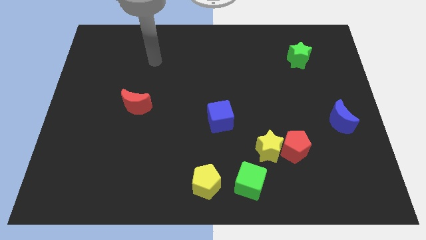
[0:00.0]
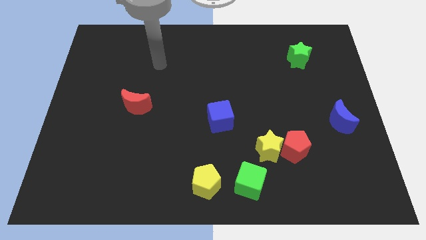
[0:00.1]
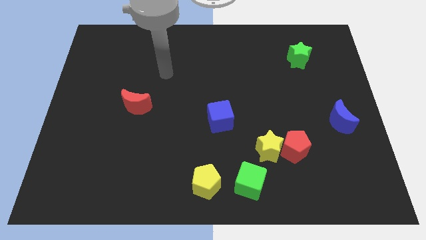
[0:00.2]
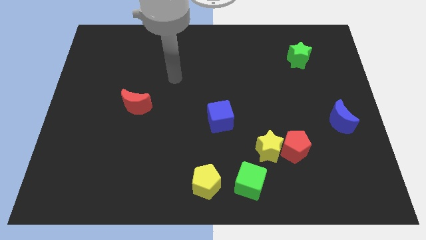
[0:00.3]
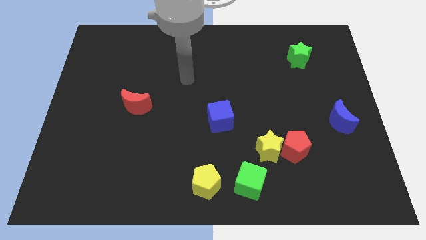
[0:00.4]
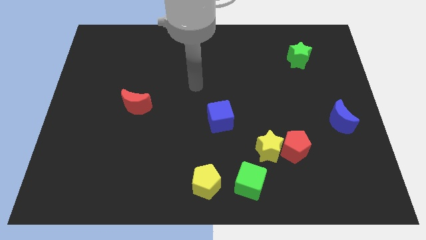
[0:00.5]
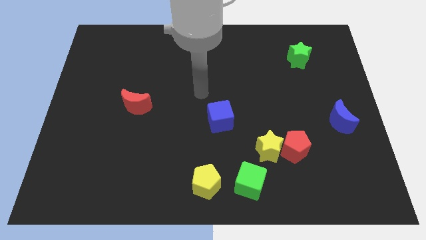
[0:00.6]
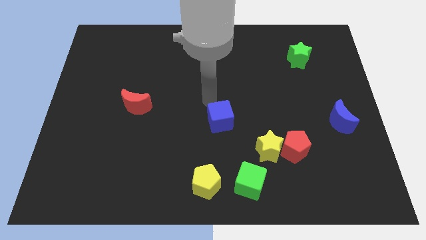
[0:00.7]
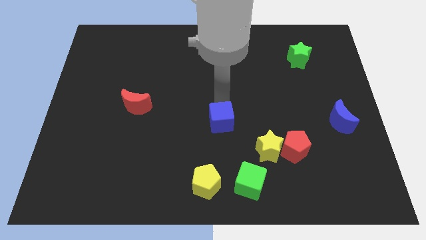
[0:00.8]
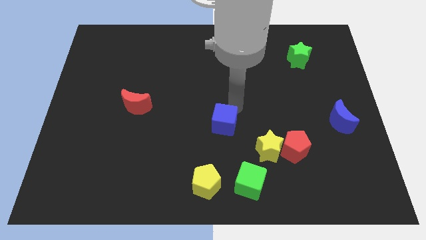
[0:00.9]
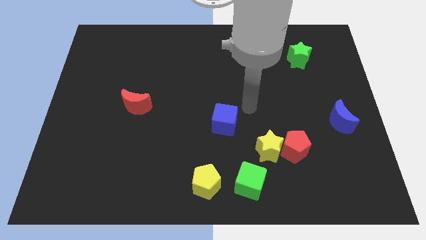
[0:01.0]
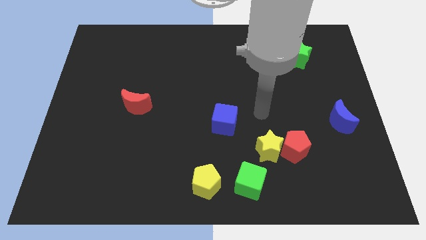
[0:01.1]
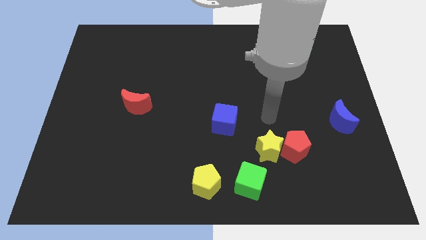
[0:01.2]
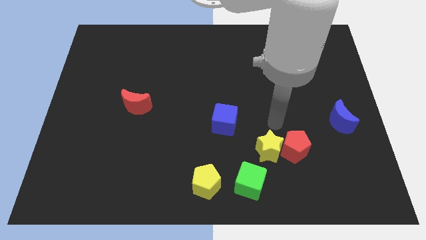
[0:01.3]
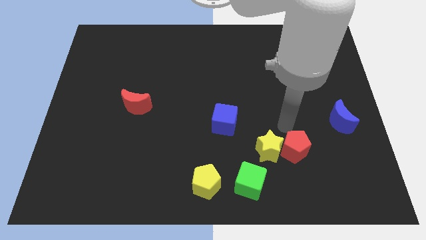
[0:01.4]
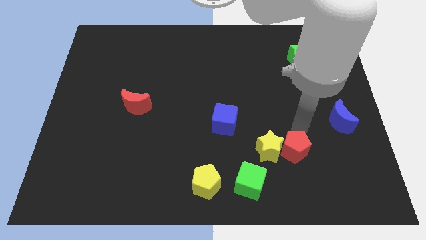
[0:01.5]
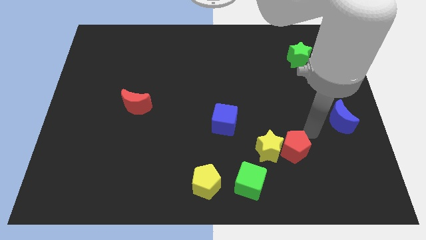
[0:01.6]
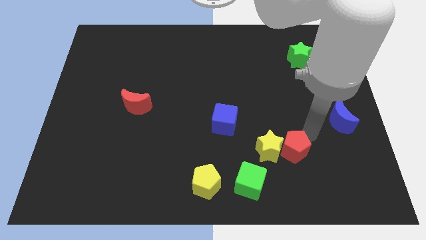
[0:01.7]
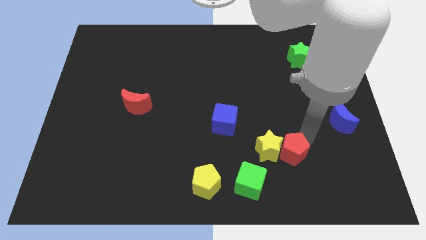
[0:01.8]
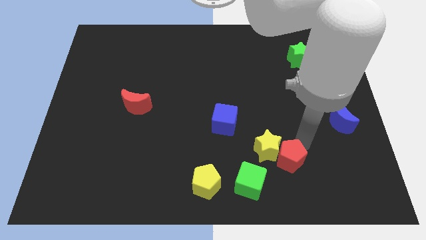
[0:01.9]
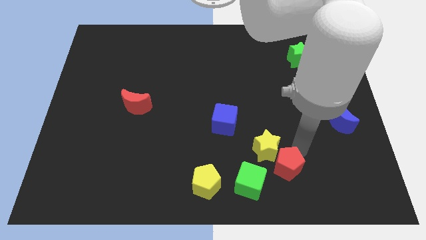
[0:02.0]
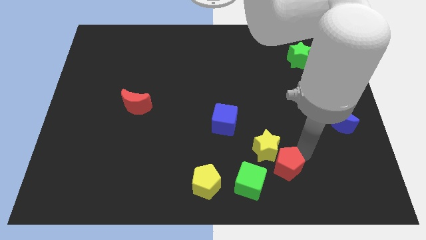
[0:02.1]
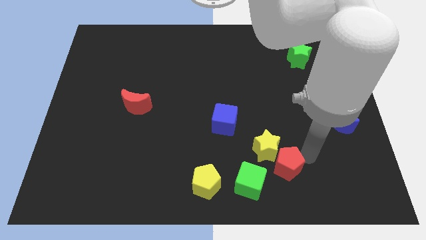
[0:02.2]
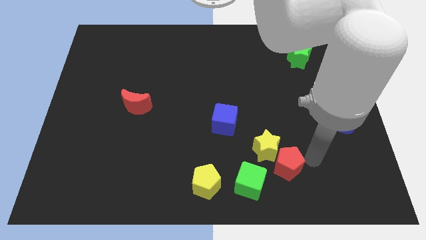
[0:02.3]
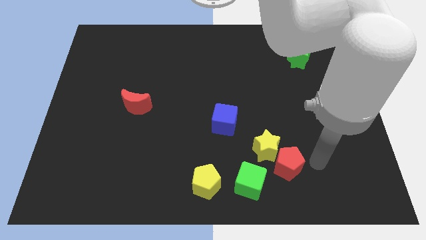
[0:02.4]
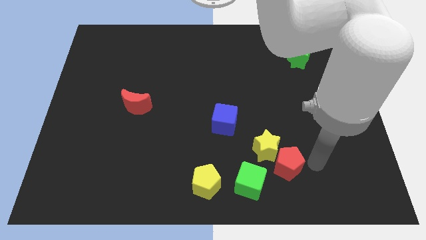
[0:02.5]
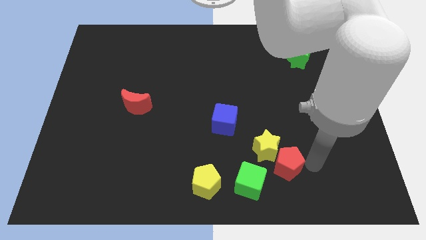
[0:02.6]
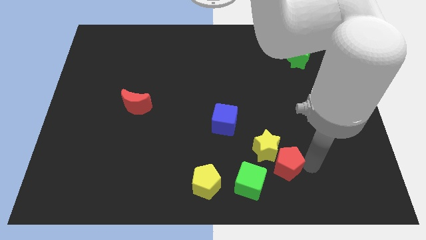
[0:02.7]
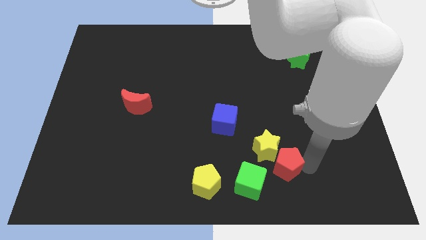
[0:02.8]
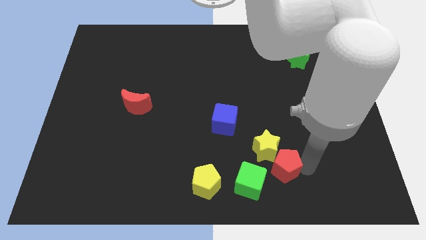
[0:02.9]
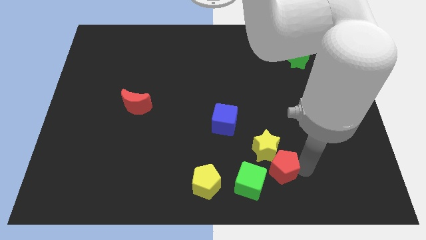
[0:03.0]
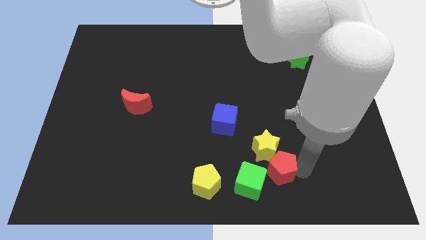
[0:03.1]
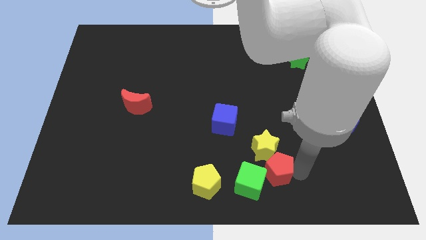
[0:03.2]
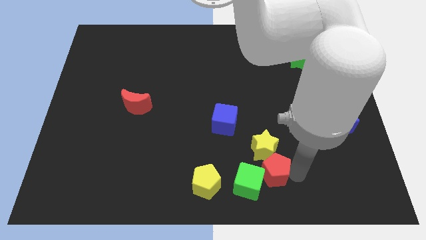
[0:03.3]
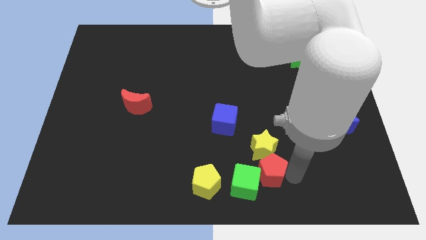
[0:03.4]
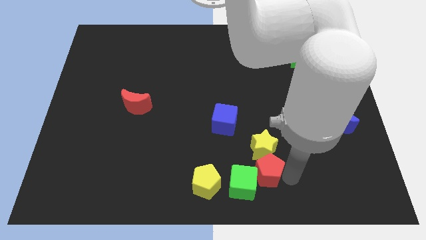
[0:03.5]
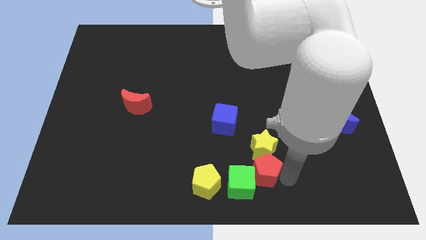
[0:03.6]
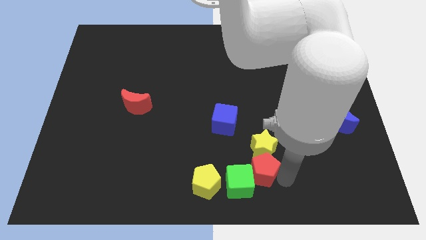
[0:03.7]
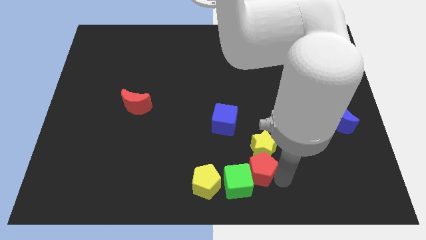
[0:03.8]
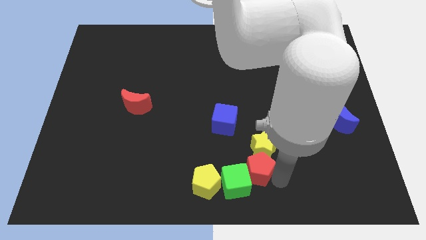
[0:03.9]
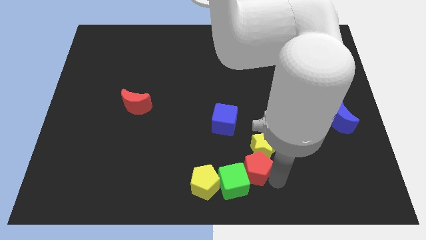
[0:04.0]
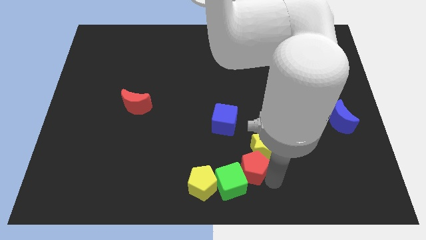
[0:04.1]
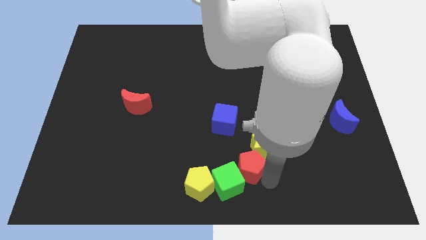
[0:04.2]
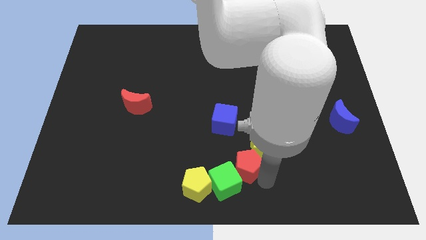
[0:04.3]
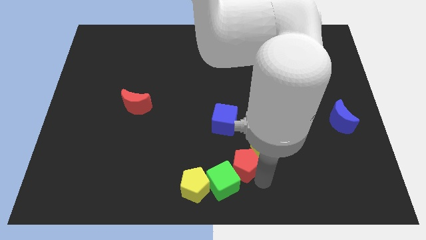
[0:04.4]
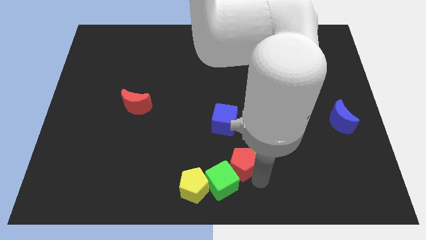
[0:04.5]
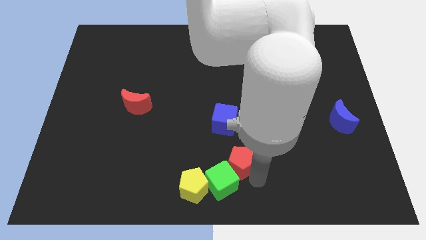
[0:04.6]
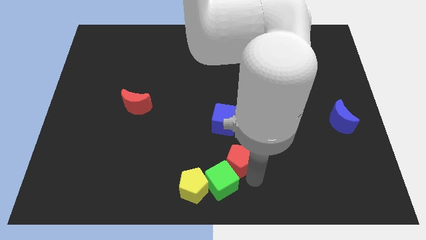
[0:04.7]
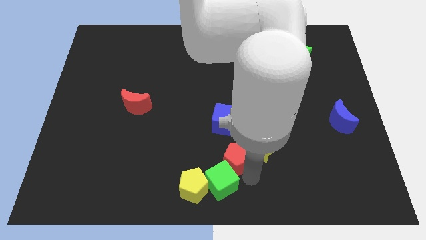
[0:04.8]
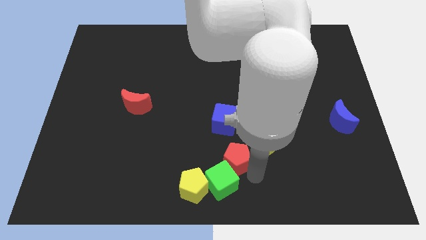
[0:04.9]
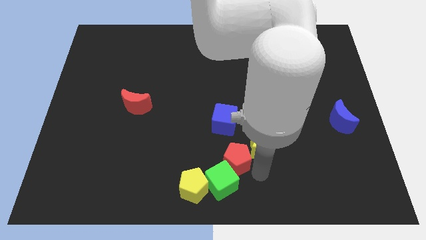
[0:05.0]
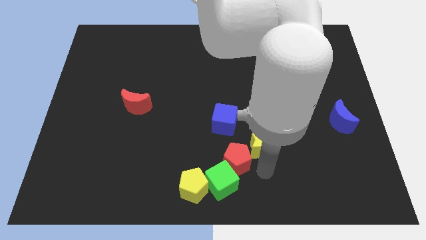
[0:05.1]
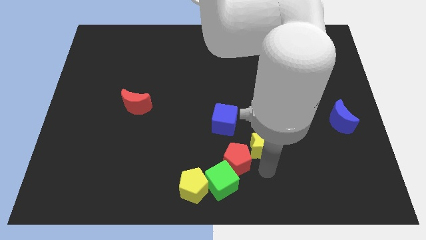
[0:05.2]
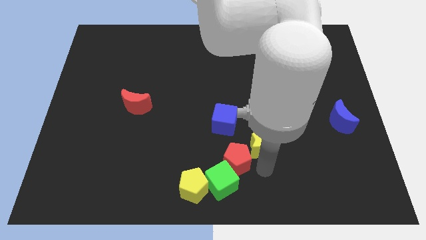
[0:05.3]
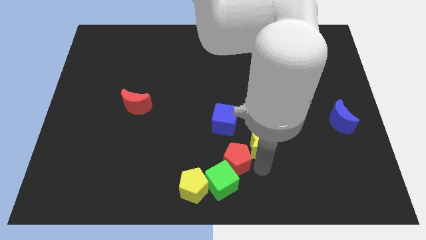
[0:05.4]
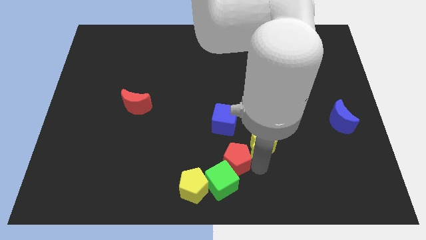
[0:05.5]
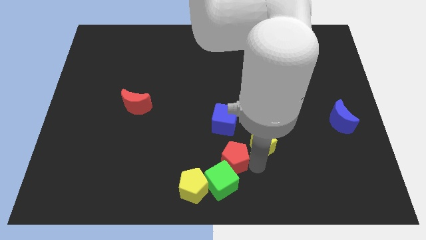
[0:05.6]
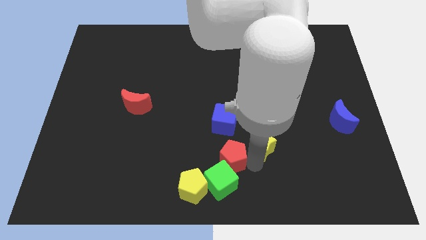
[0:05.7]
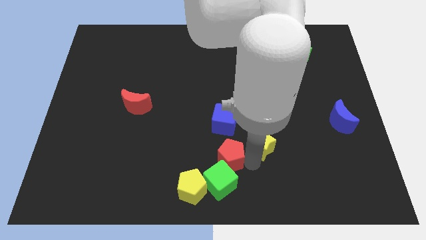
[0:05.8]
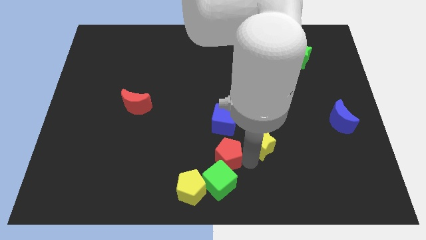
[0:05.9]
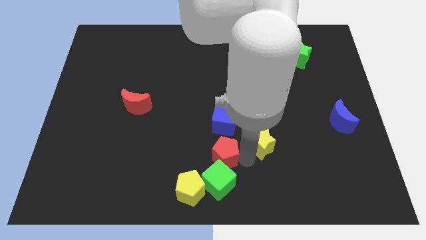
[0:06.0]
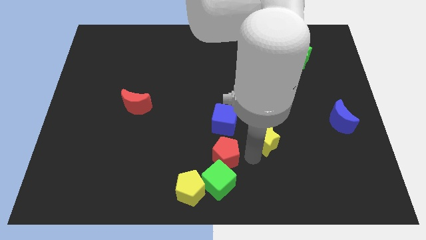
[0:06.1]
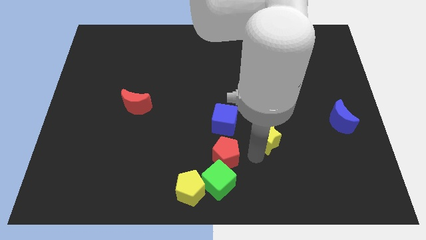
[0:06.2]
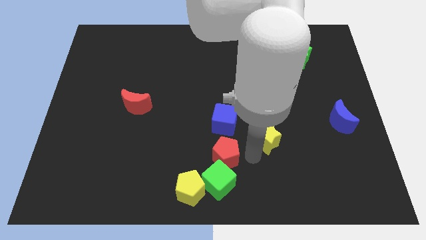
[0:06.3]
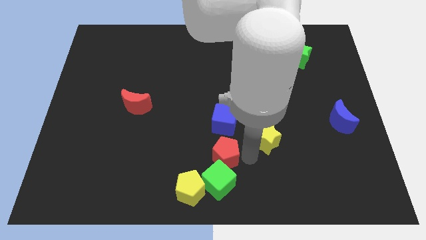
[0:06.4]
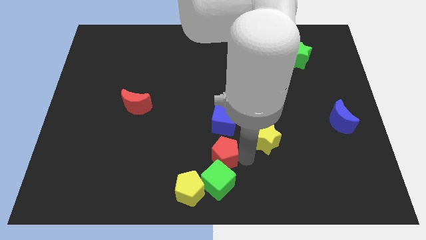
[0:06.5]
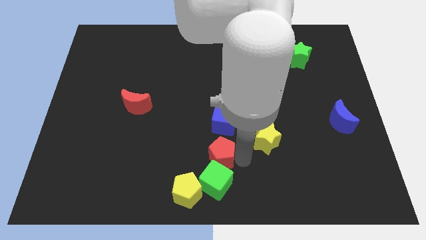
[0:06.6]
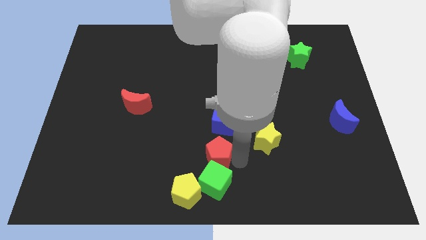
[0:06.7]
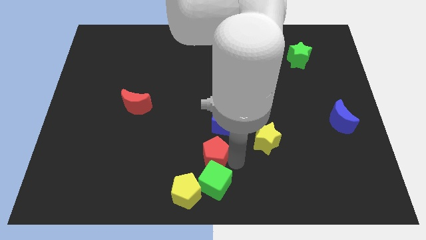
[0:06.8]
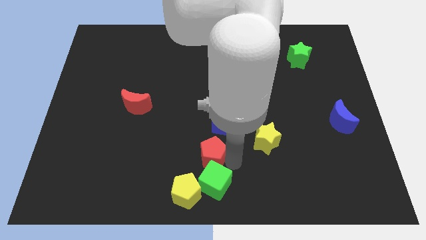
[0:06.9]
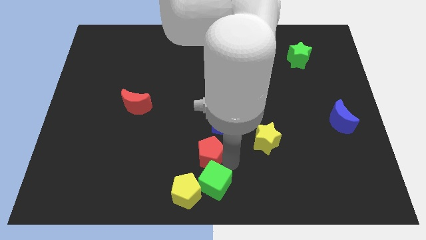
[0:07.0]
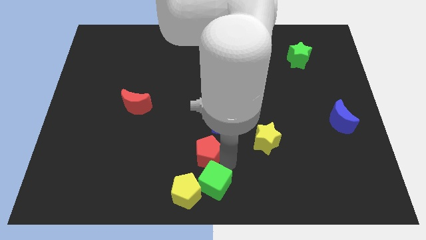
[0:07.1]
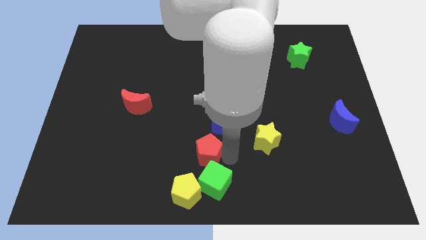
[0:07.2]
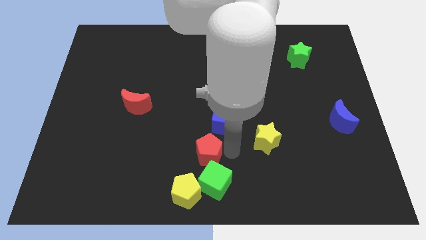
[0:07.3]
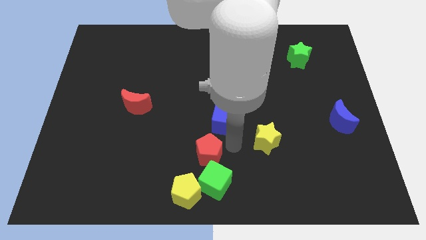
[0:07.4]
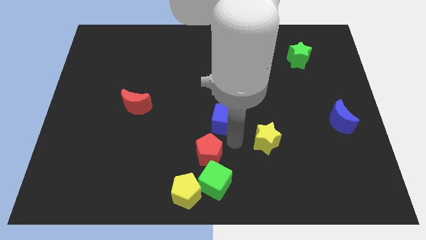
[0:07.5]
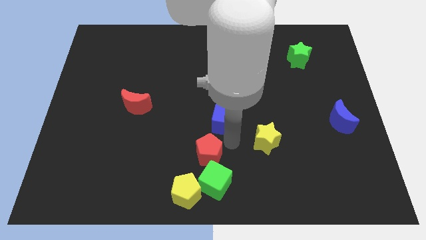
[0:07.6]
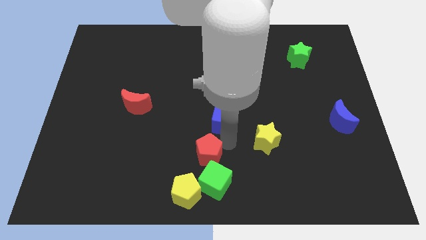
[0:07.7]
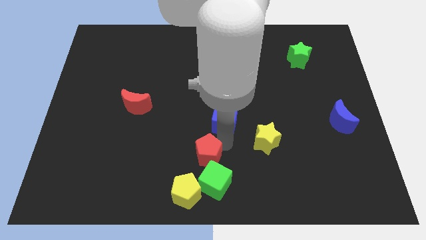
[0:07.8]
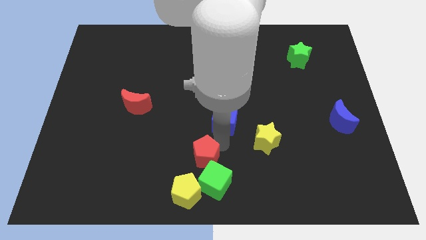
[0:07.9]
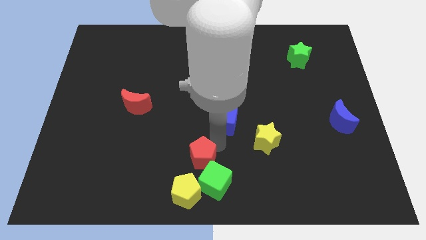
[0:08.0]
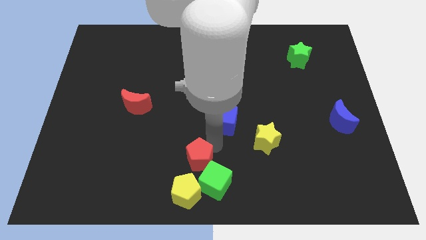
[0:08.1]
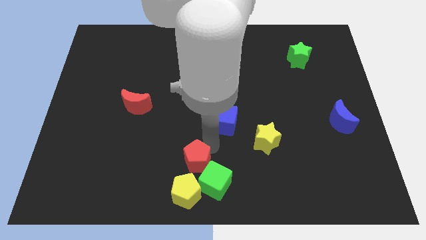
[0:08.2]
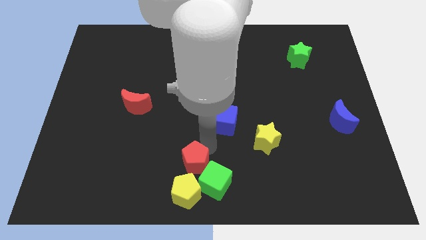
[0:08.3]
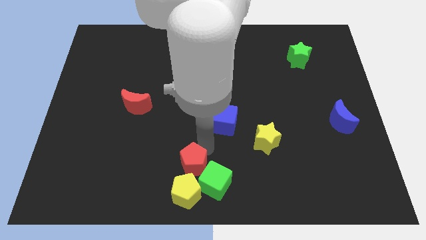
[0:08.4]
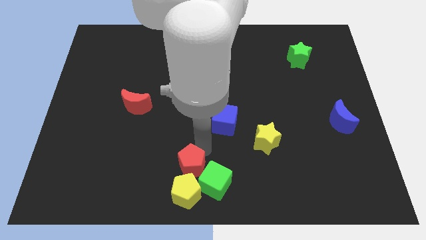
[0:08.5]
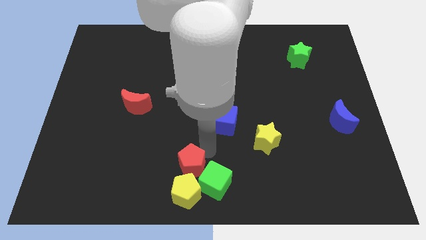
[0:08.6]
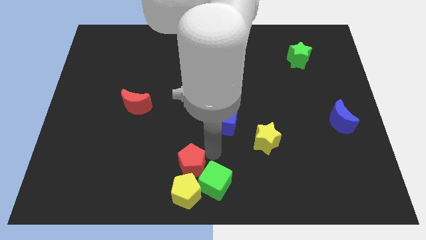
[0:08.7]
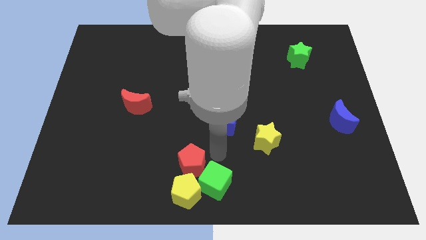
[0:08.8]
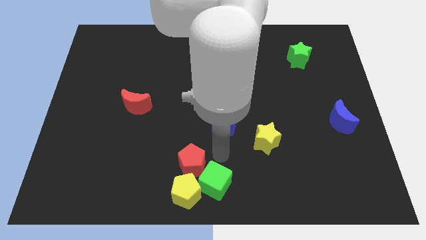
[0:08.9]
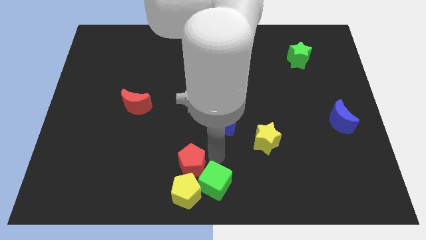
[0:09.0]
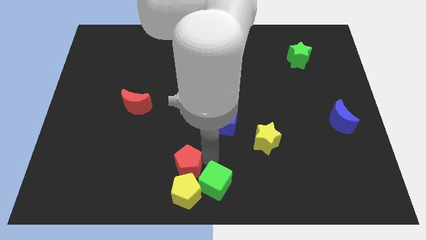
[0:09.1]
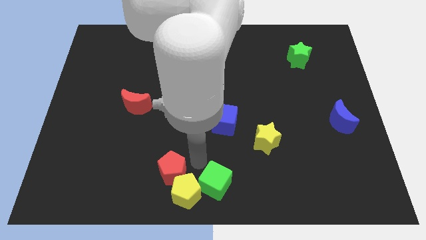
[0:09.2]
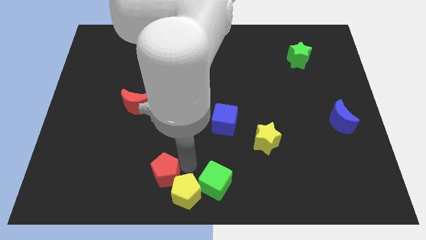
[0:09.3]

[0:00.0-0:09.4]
slide the red pentagon to the left of the yellow pentagon
